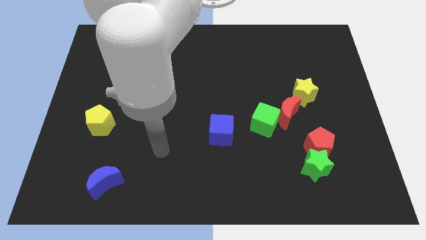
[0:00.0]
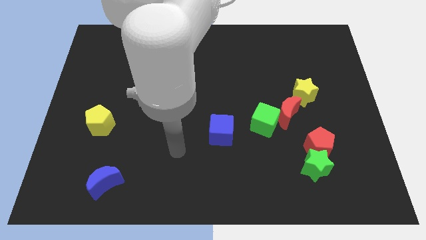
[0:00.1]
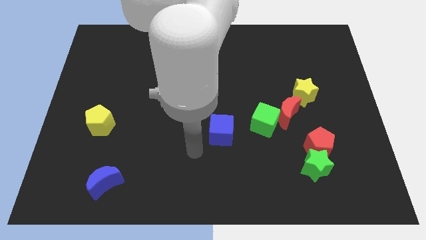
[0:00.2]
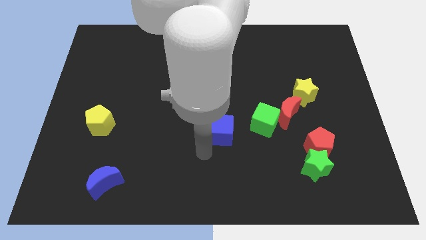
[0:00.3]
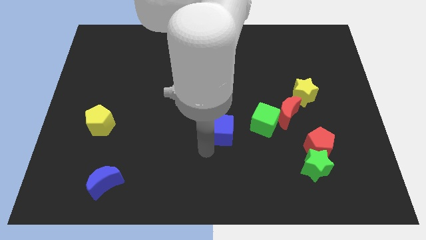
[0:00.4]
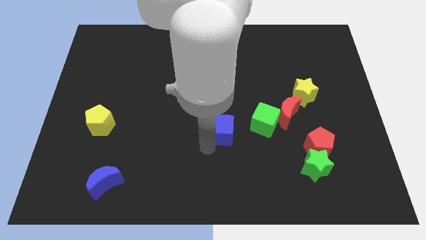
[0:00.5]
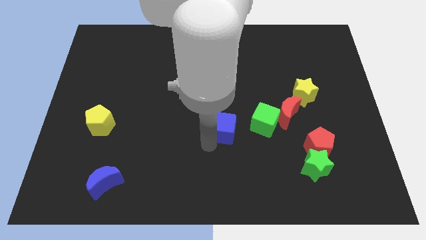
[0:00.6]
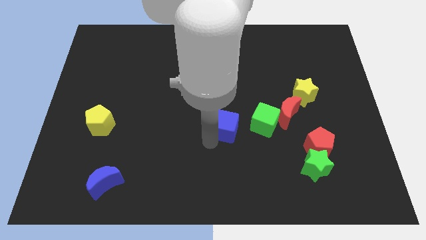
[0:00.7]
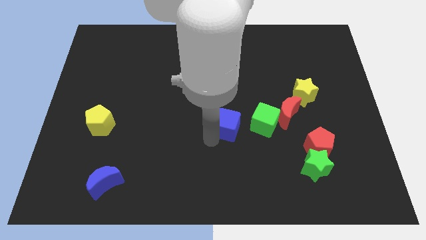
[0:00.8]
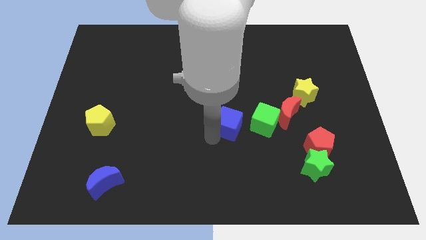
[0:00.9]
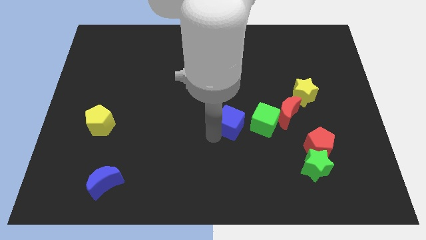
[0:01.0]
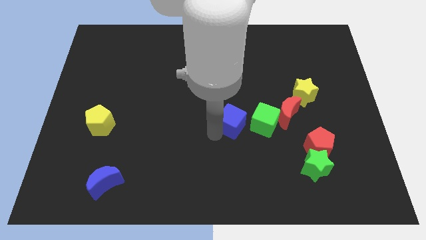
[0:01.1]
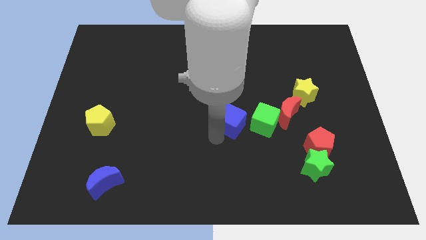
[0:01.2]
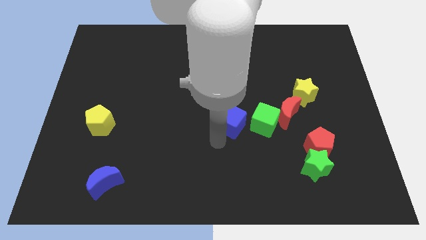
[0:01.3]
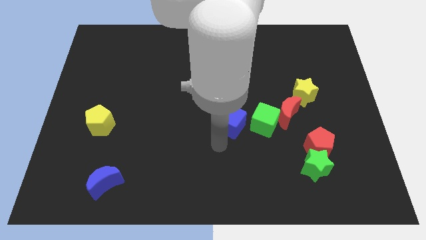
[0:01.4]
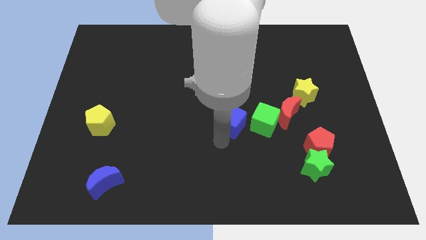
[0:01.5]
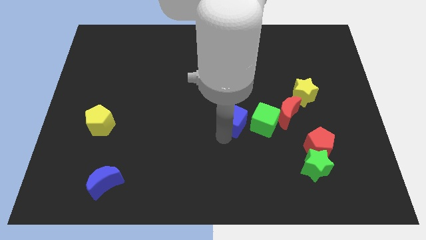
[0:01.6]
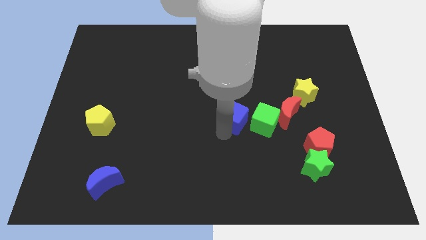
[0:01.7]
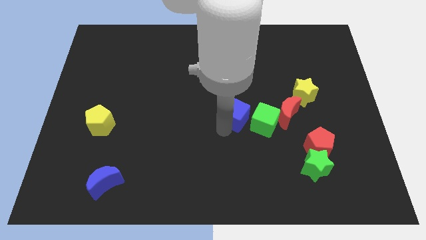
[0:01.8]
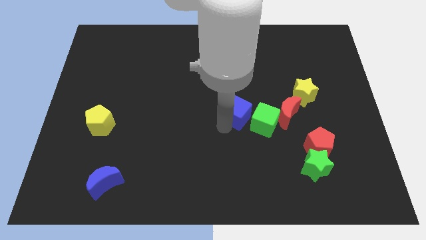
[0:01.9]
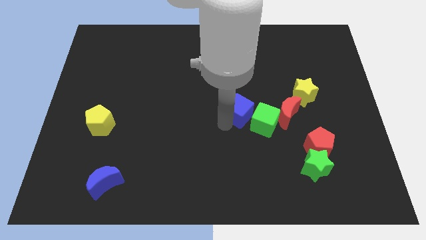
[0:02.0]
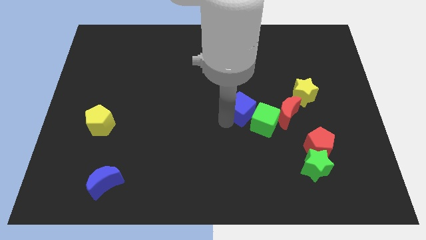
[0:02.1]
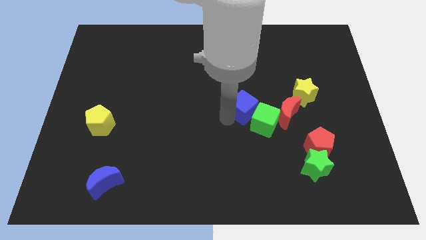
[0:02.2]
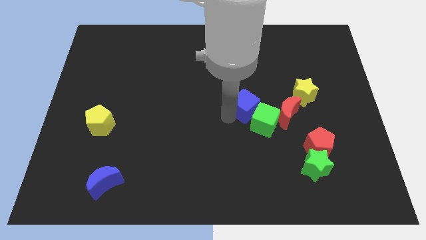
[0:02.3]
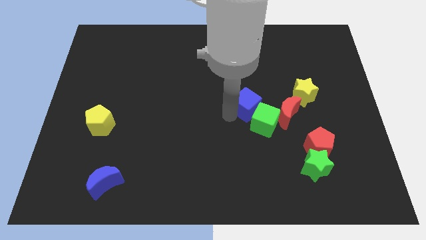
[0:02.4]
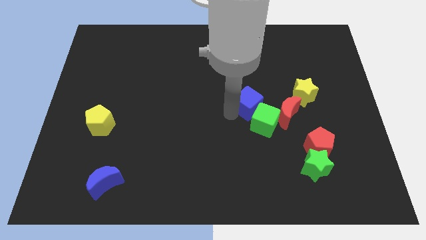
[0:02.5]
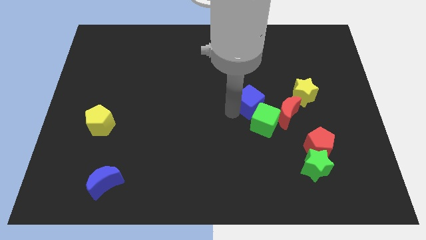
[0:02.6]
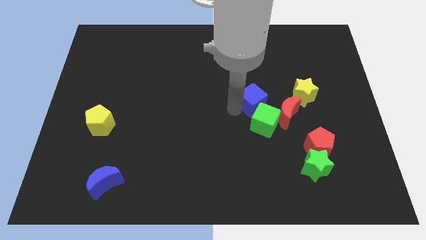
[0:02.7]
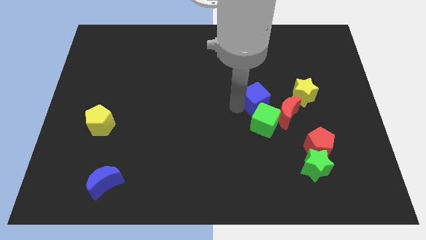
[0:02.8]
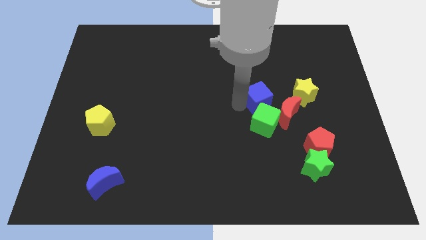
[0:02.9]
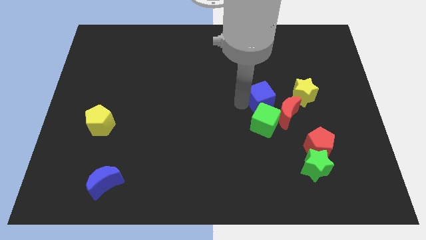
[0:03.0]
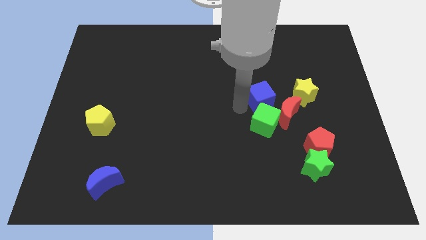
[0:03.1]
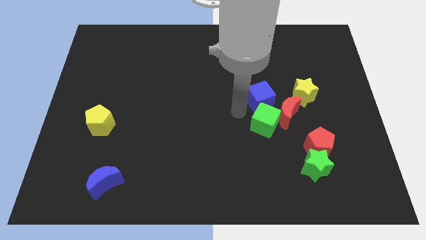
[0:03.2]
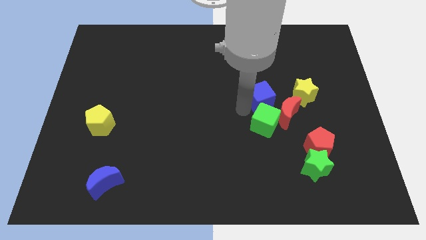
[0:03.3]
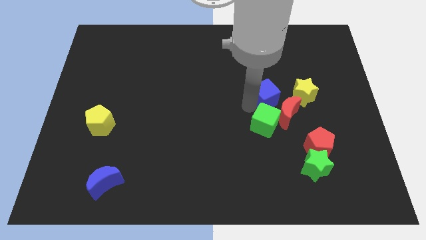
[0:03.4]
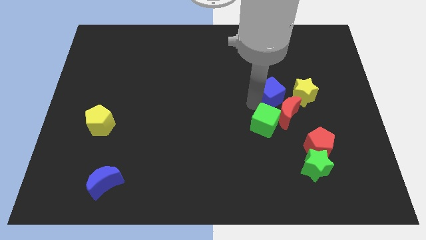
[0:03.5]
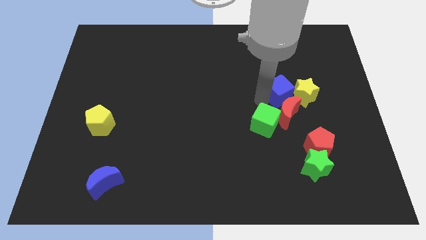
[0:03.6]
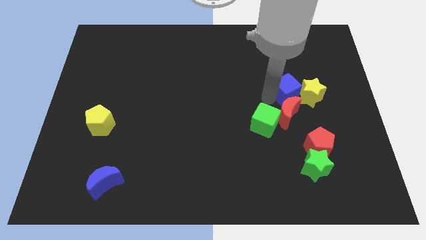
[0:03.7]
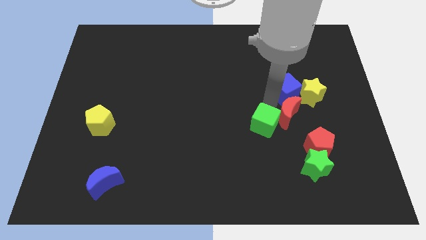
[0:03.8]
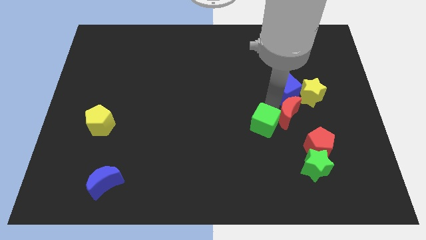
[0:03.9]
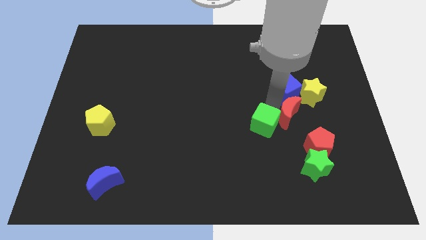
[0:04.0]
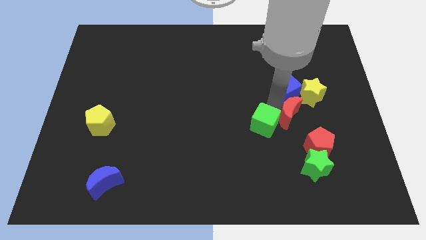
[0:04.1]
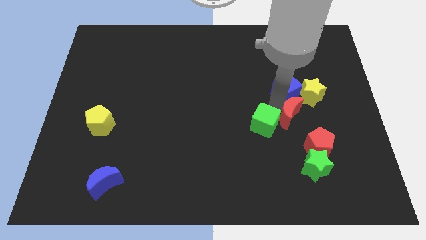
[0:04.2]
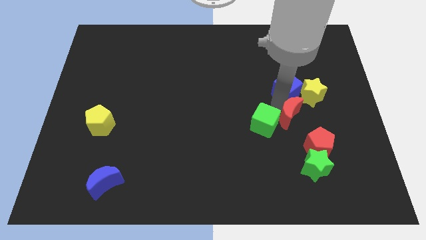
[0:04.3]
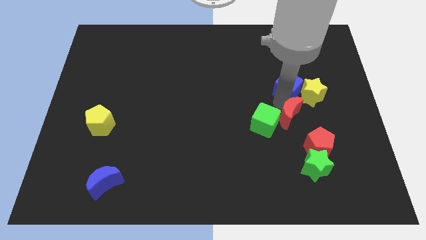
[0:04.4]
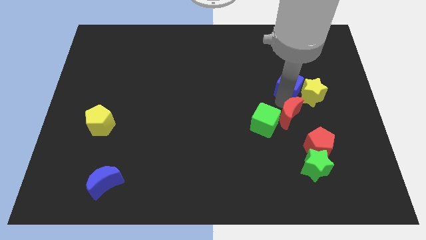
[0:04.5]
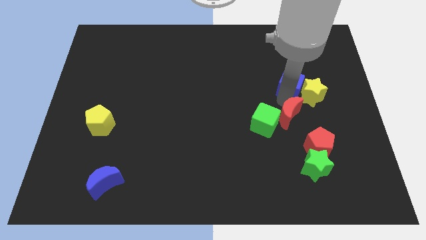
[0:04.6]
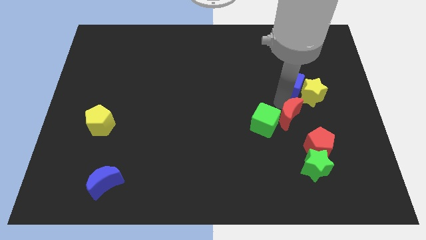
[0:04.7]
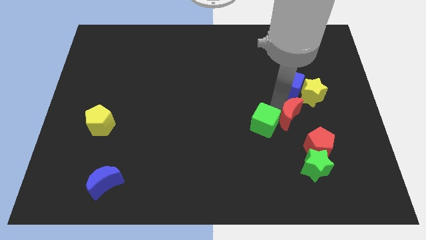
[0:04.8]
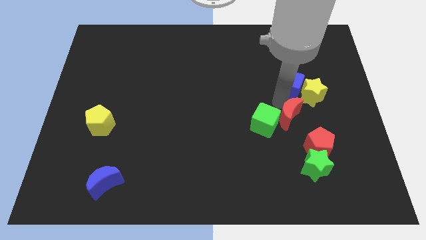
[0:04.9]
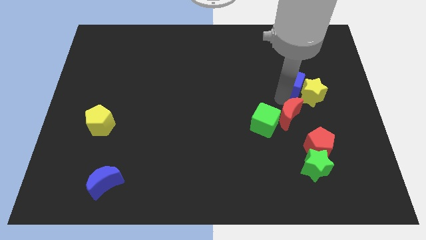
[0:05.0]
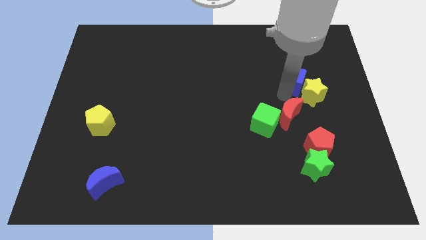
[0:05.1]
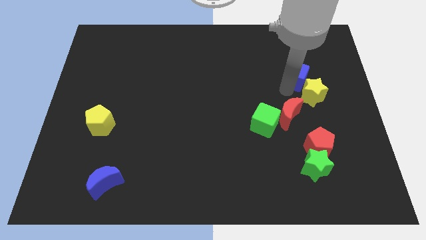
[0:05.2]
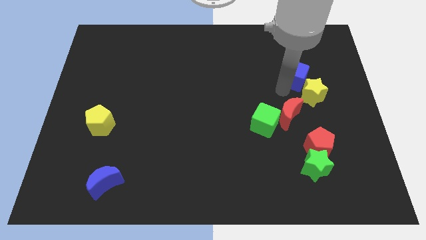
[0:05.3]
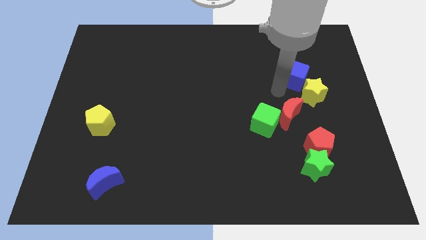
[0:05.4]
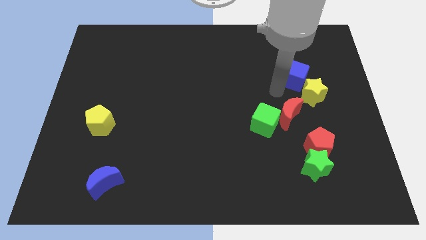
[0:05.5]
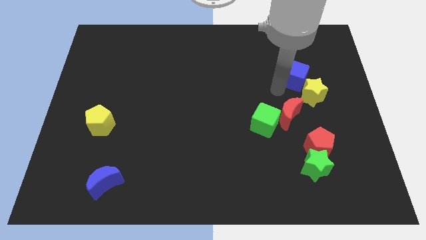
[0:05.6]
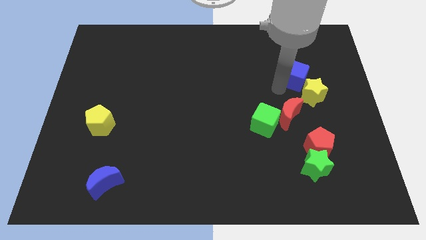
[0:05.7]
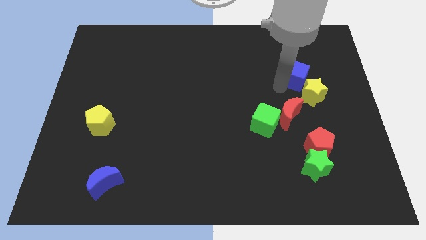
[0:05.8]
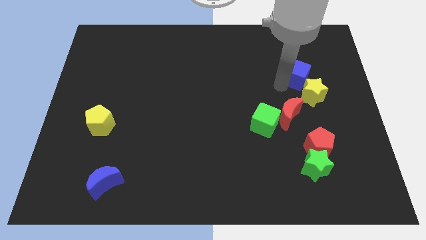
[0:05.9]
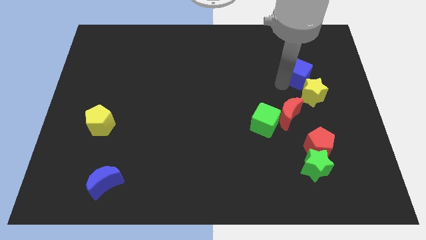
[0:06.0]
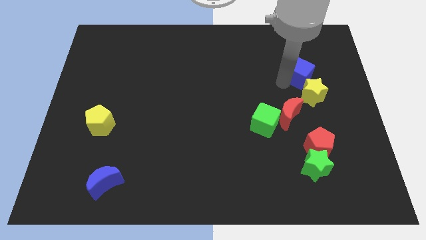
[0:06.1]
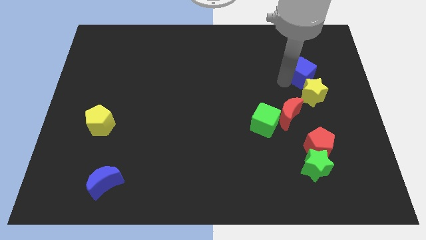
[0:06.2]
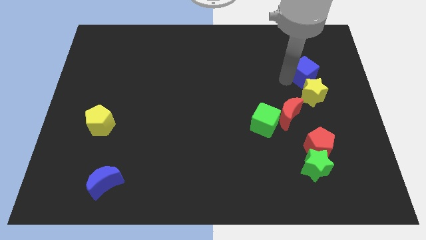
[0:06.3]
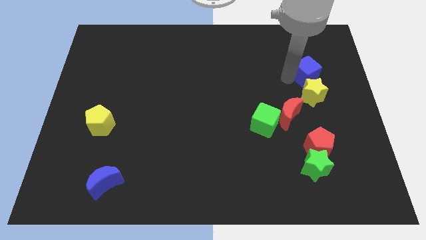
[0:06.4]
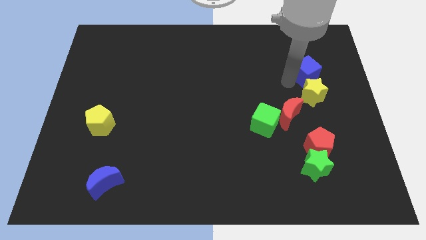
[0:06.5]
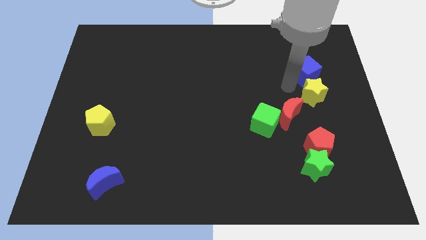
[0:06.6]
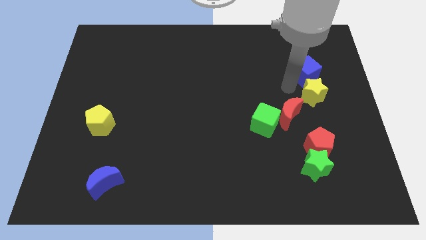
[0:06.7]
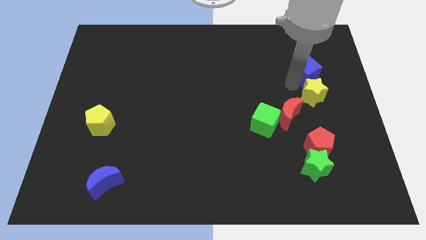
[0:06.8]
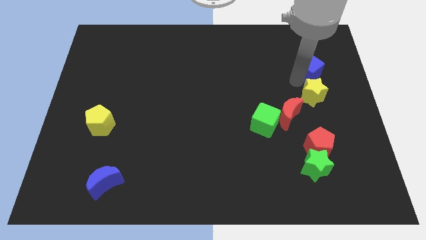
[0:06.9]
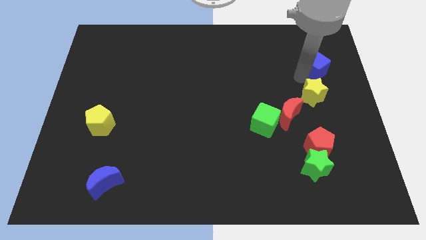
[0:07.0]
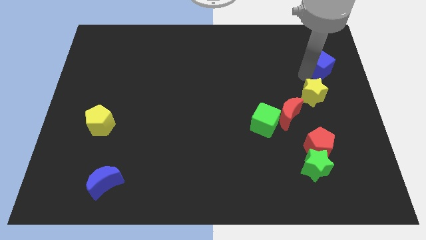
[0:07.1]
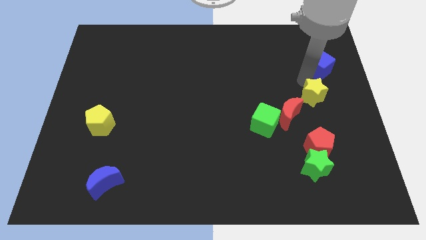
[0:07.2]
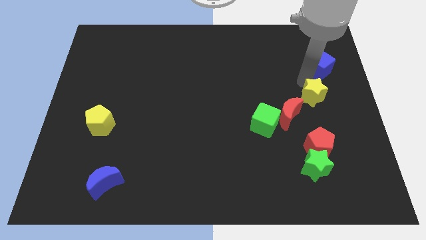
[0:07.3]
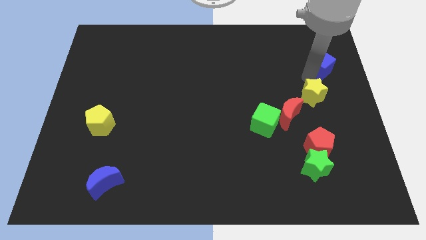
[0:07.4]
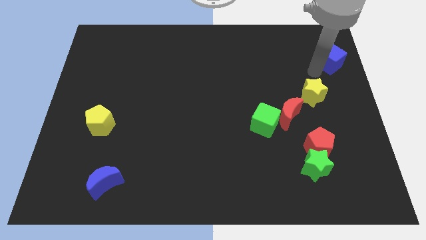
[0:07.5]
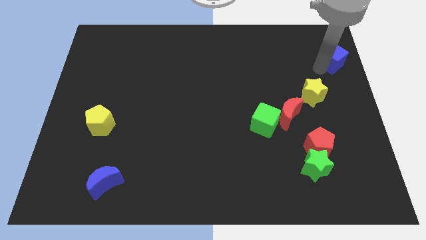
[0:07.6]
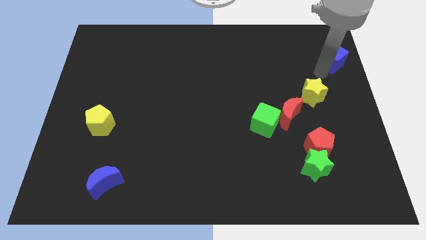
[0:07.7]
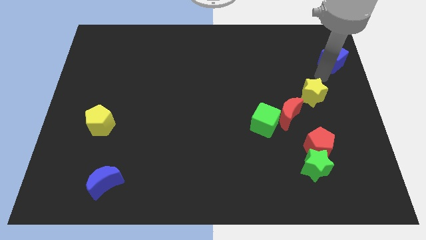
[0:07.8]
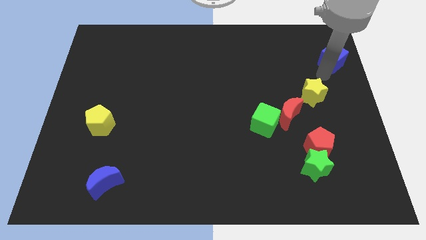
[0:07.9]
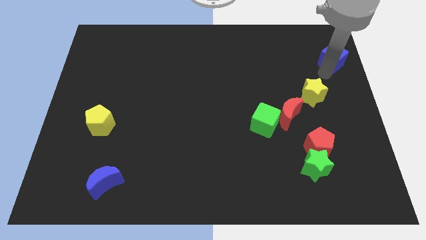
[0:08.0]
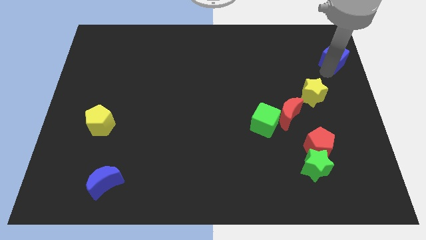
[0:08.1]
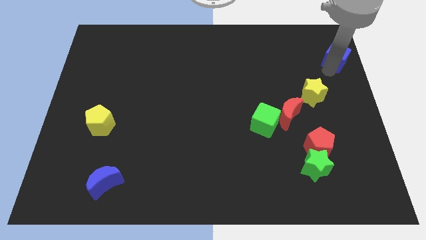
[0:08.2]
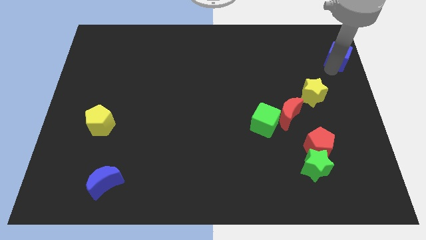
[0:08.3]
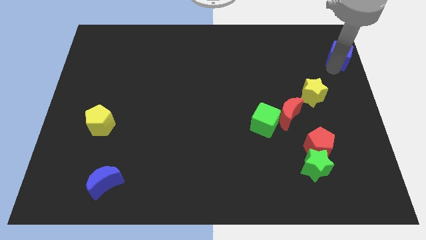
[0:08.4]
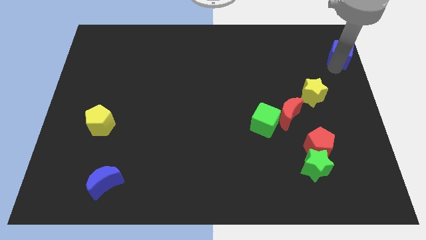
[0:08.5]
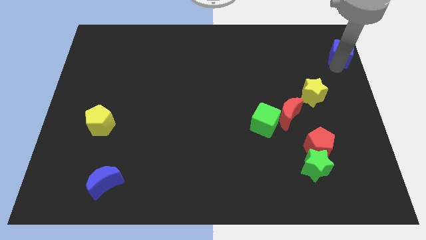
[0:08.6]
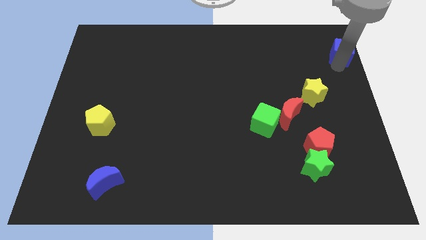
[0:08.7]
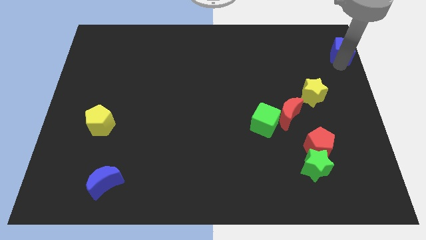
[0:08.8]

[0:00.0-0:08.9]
push the blue cube to the top right
